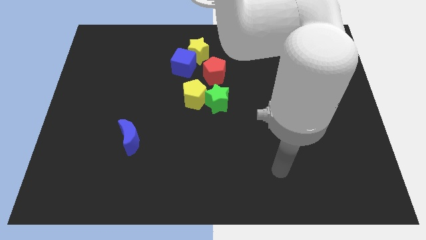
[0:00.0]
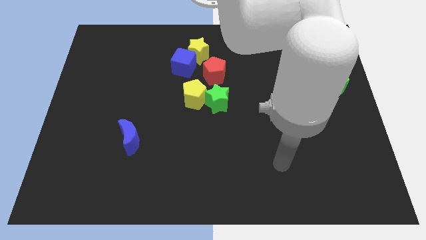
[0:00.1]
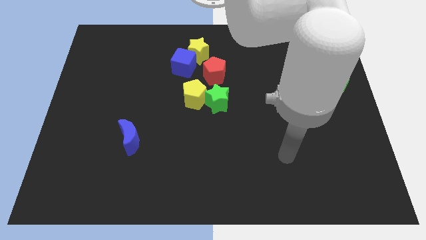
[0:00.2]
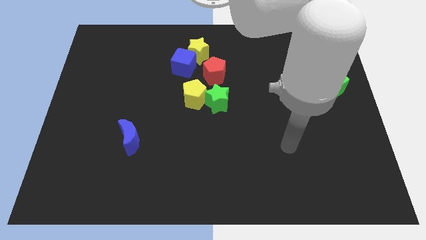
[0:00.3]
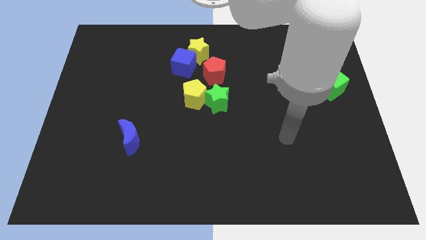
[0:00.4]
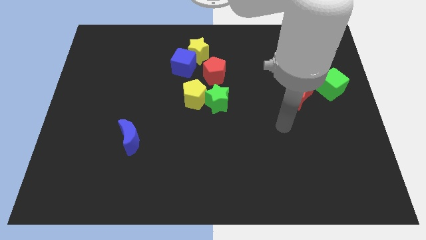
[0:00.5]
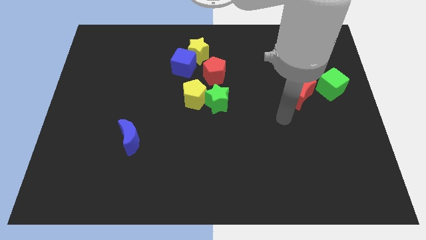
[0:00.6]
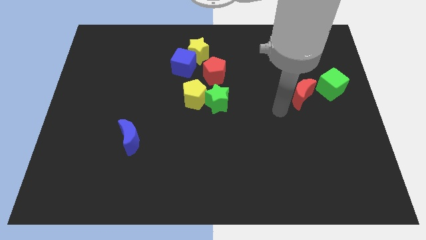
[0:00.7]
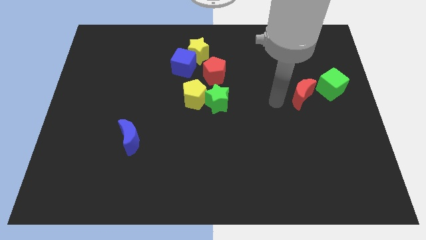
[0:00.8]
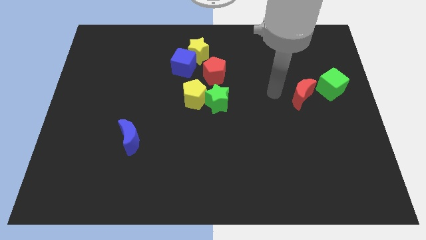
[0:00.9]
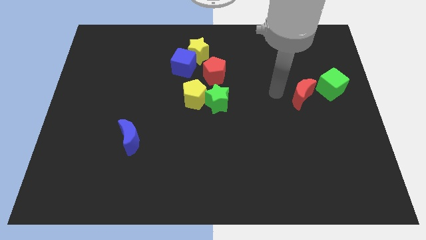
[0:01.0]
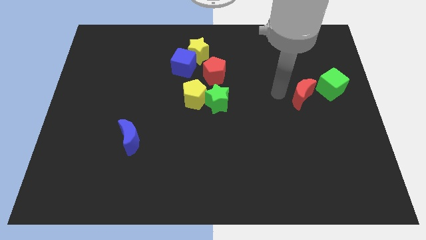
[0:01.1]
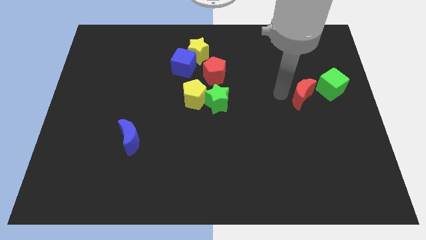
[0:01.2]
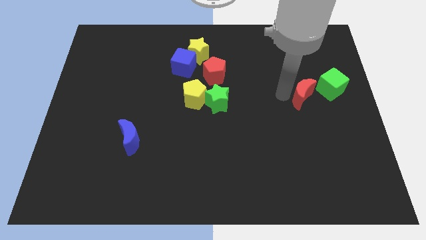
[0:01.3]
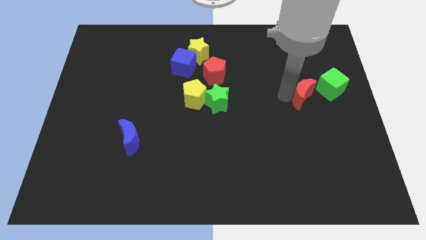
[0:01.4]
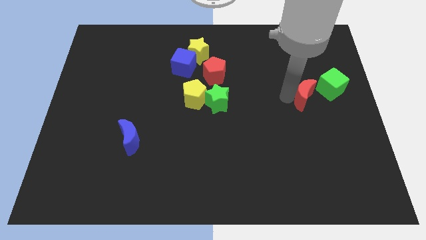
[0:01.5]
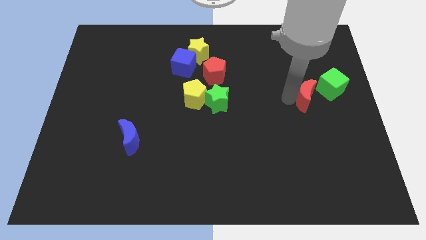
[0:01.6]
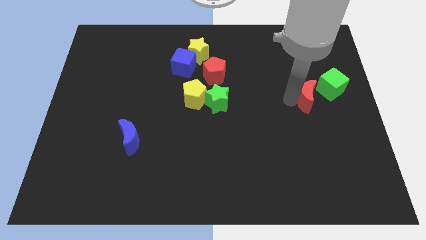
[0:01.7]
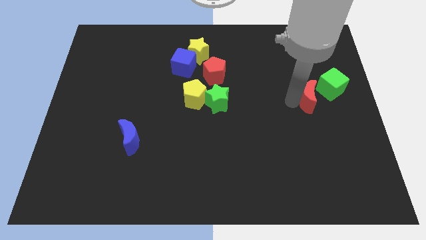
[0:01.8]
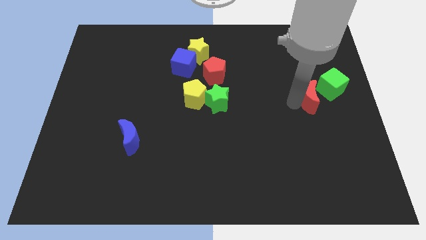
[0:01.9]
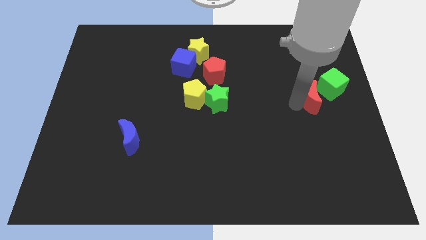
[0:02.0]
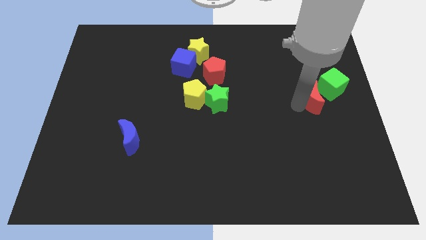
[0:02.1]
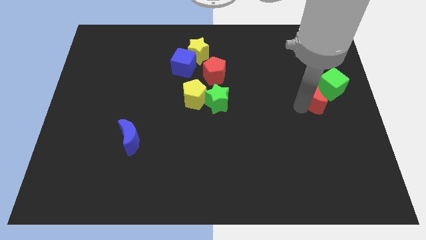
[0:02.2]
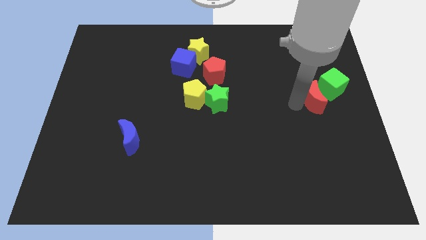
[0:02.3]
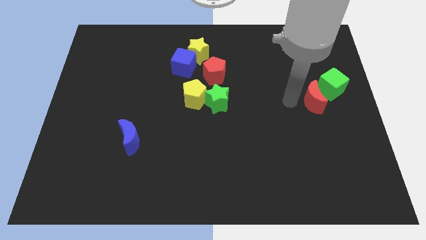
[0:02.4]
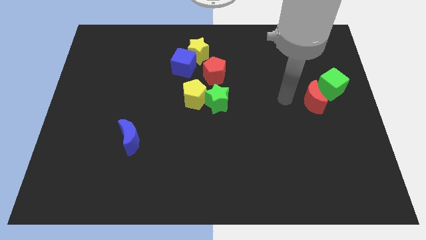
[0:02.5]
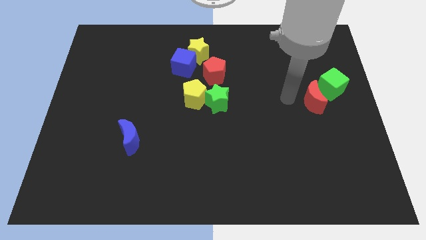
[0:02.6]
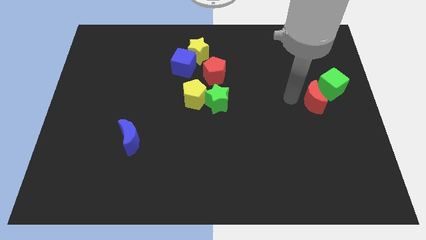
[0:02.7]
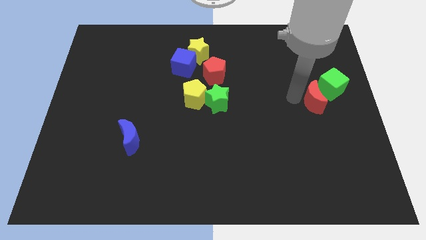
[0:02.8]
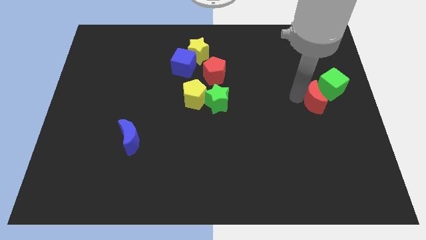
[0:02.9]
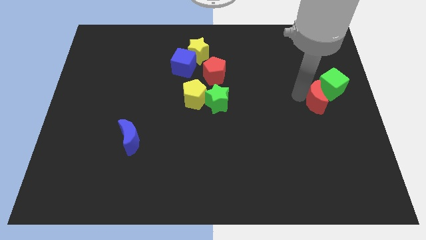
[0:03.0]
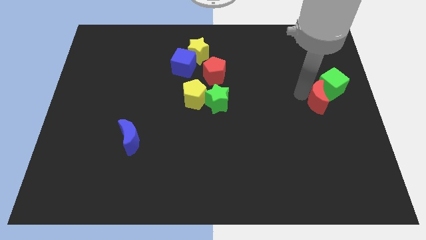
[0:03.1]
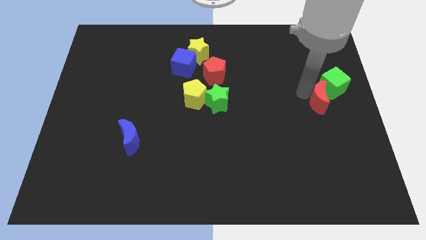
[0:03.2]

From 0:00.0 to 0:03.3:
put the red moon to the center right

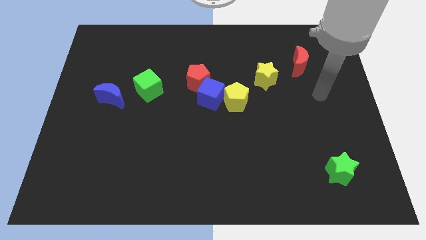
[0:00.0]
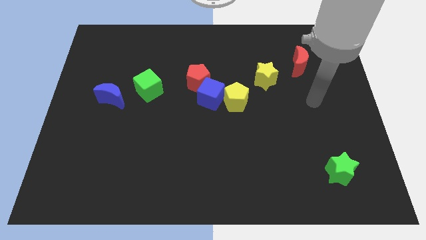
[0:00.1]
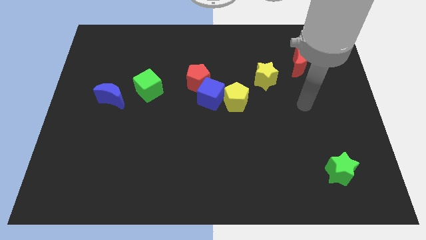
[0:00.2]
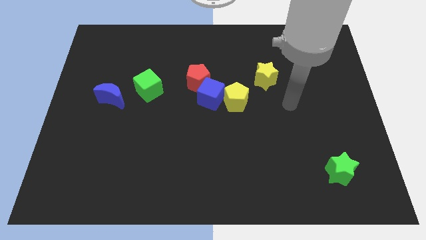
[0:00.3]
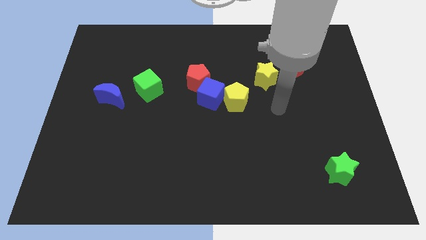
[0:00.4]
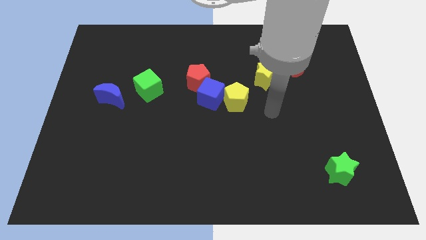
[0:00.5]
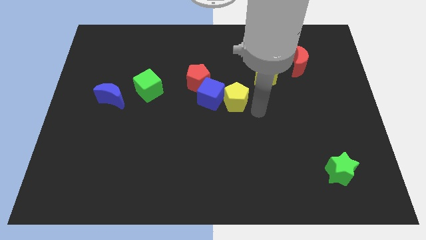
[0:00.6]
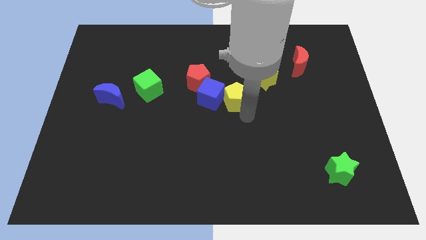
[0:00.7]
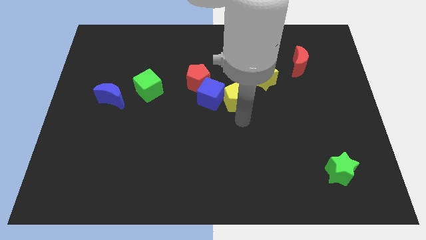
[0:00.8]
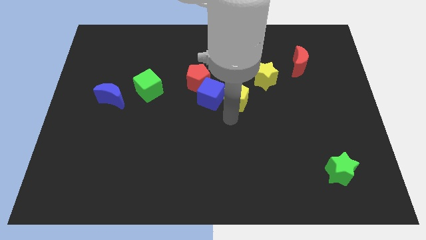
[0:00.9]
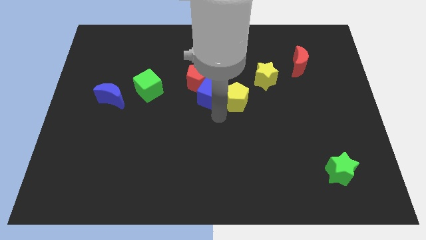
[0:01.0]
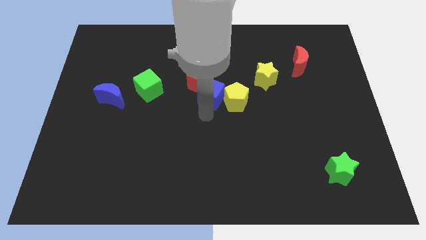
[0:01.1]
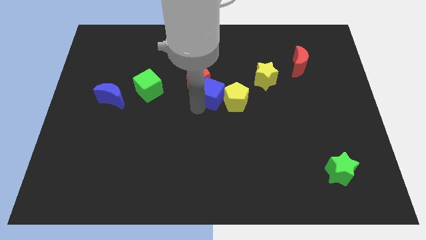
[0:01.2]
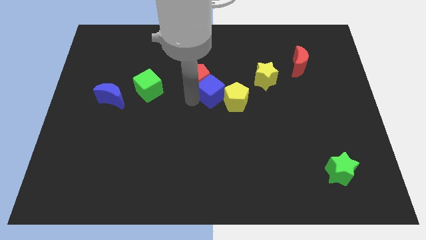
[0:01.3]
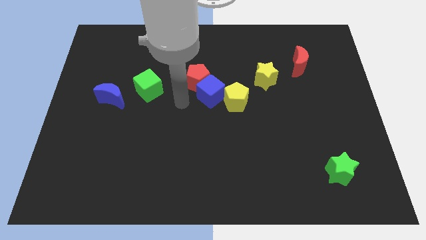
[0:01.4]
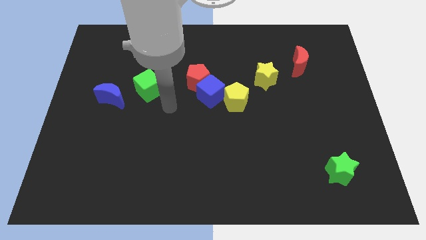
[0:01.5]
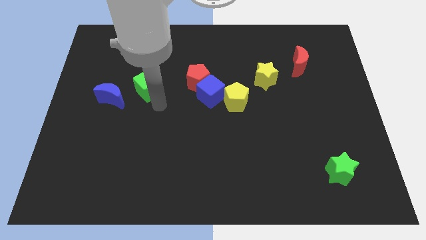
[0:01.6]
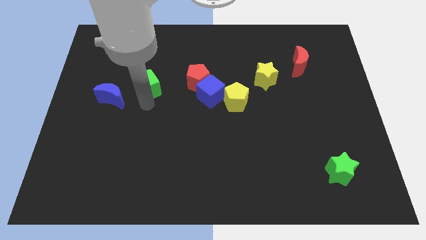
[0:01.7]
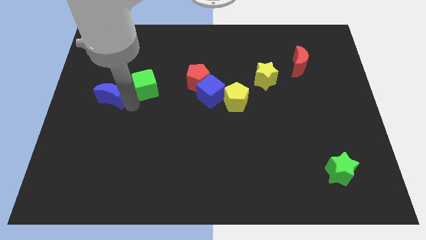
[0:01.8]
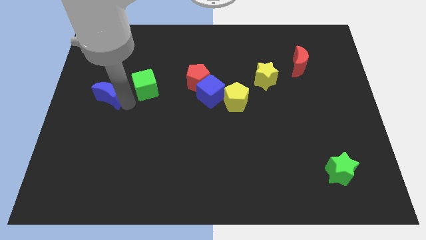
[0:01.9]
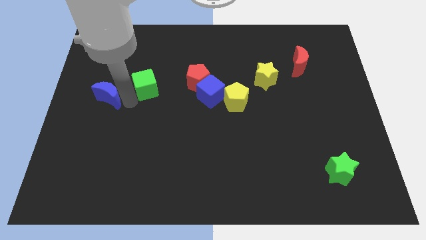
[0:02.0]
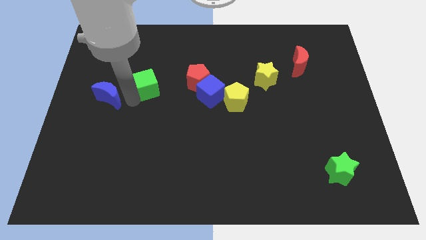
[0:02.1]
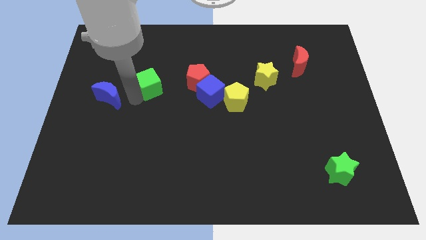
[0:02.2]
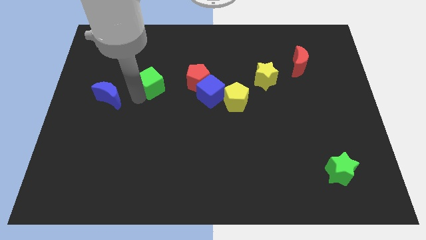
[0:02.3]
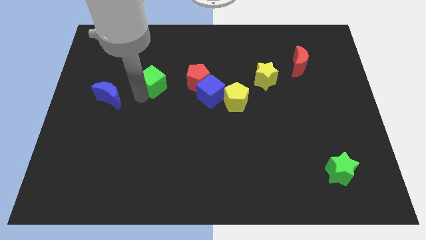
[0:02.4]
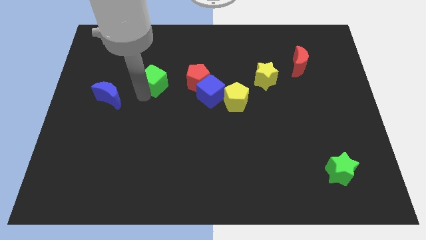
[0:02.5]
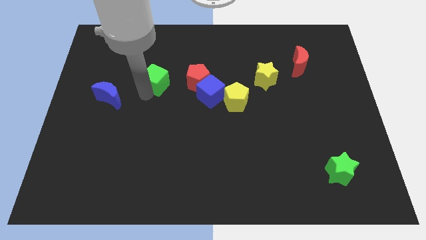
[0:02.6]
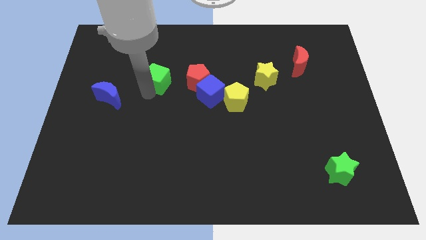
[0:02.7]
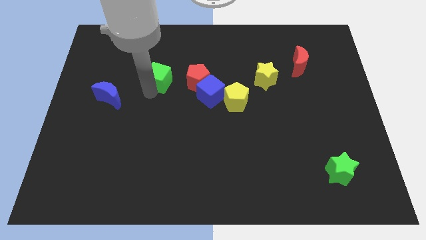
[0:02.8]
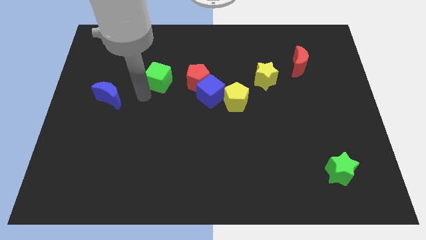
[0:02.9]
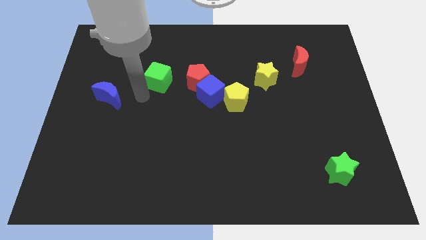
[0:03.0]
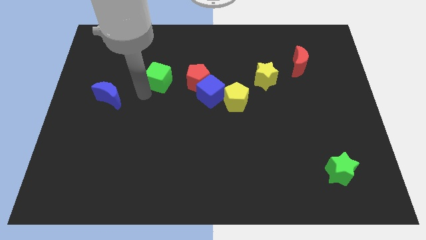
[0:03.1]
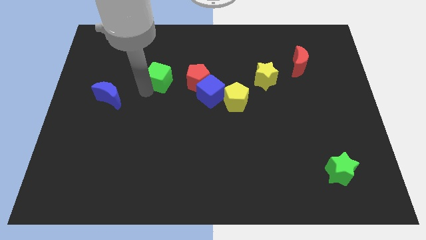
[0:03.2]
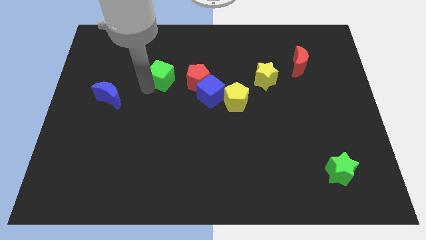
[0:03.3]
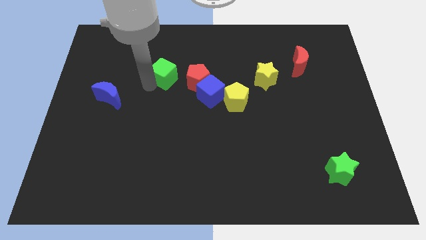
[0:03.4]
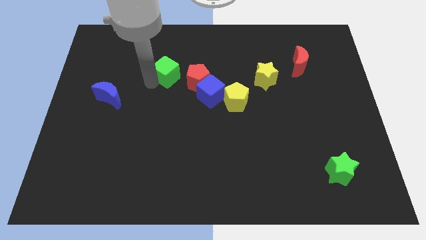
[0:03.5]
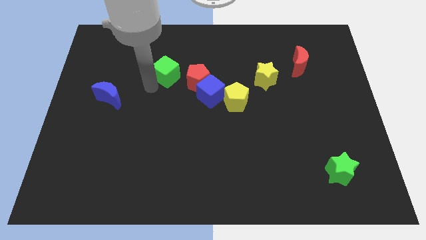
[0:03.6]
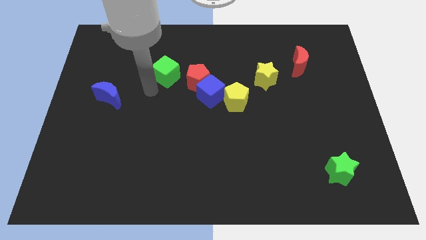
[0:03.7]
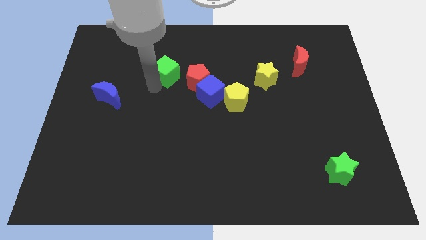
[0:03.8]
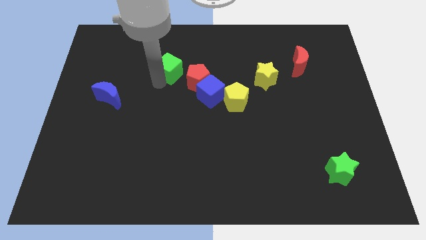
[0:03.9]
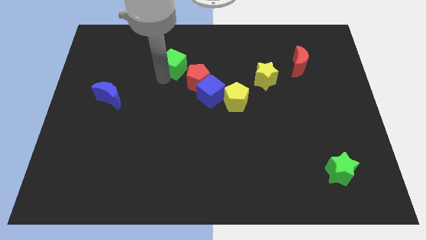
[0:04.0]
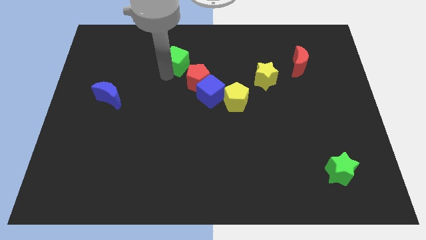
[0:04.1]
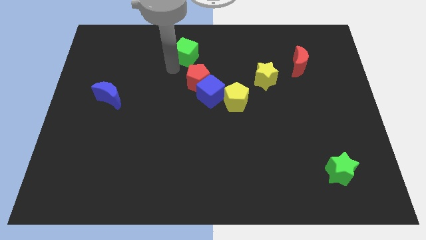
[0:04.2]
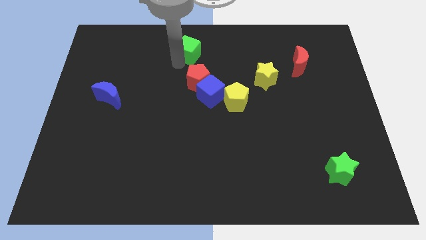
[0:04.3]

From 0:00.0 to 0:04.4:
put the green cube to the top side
